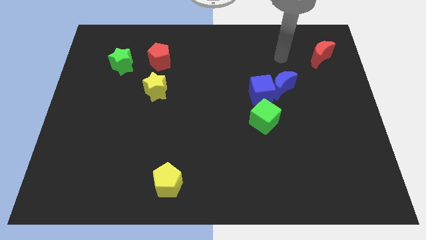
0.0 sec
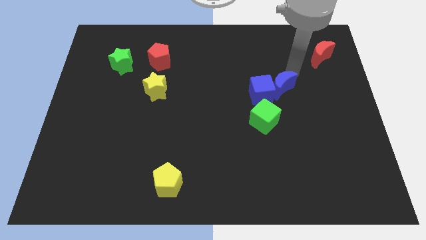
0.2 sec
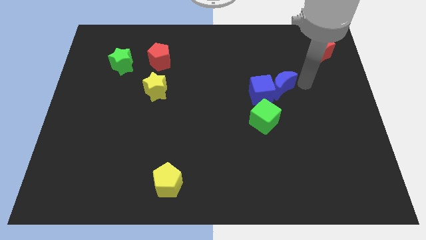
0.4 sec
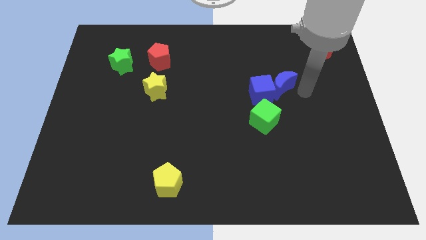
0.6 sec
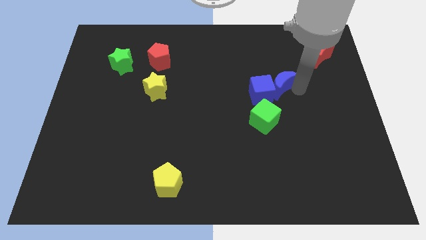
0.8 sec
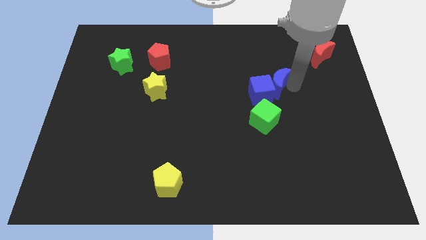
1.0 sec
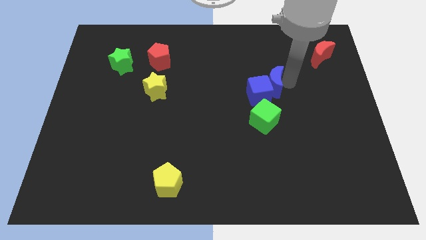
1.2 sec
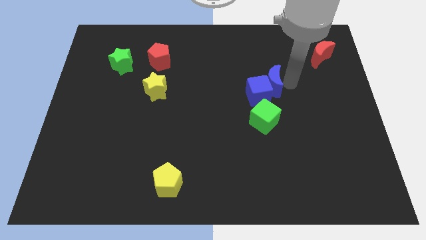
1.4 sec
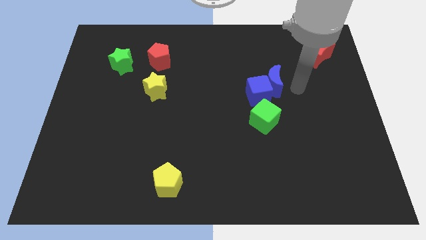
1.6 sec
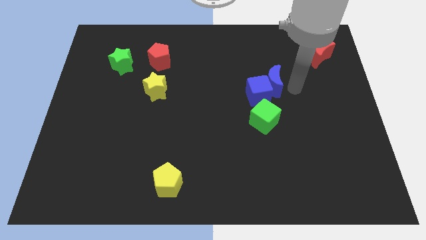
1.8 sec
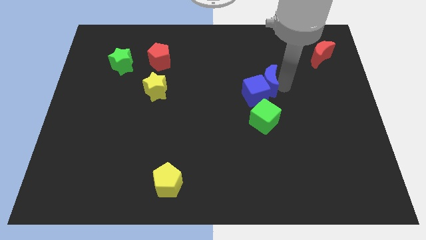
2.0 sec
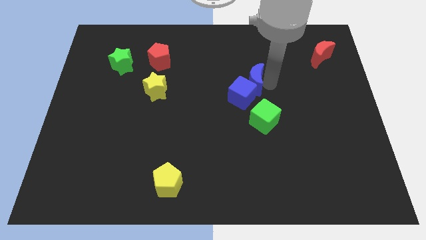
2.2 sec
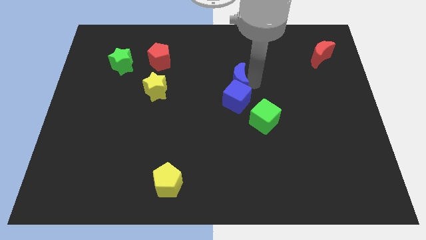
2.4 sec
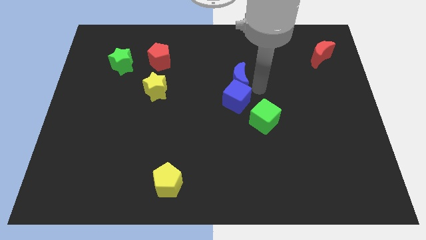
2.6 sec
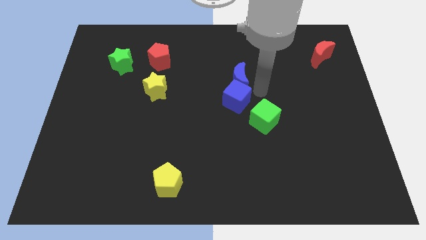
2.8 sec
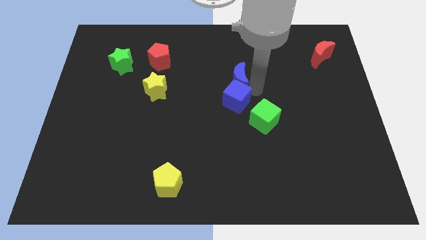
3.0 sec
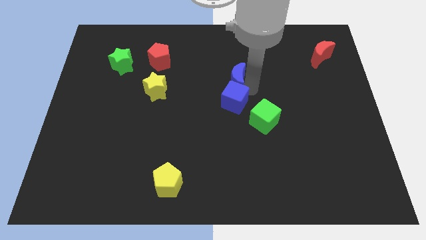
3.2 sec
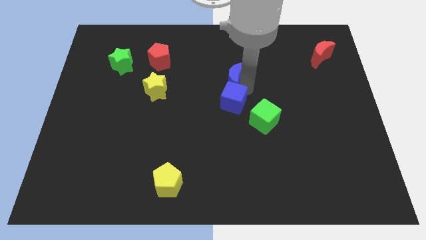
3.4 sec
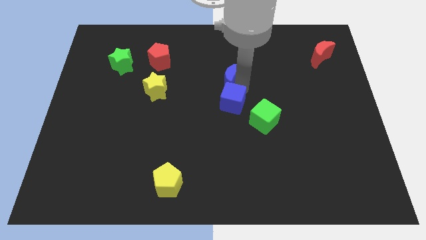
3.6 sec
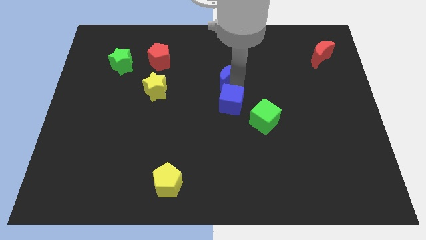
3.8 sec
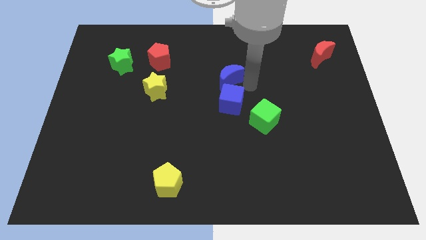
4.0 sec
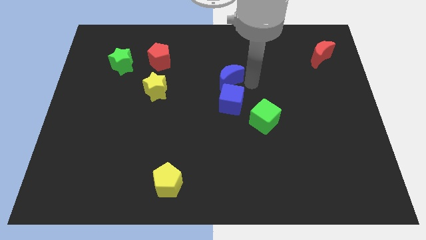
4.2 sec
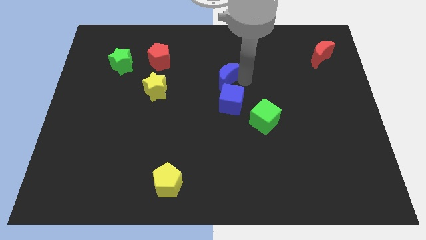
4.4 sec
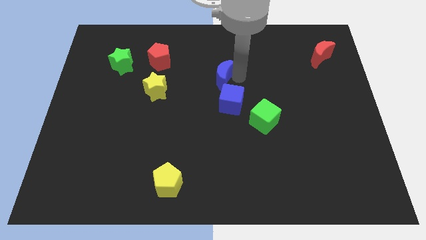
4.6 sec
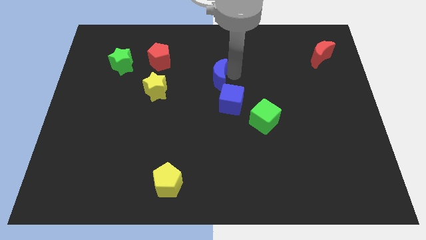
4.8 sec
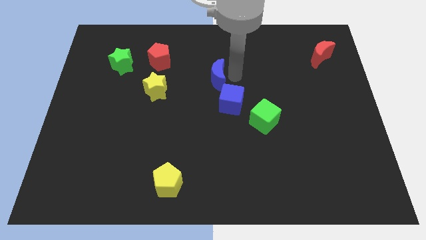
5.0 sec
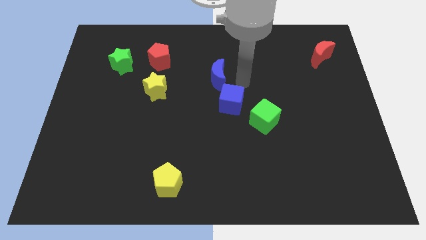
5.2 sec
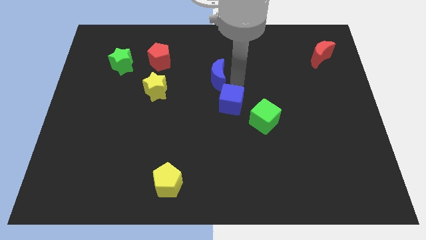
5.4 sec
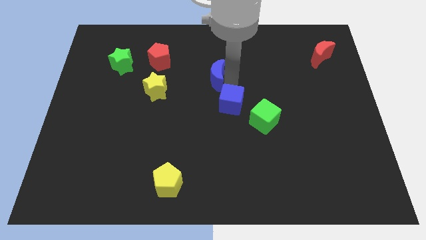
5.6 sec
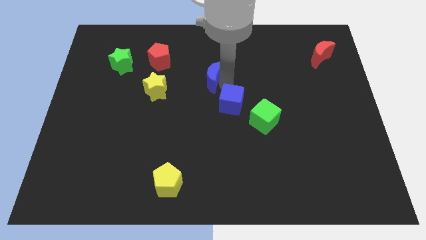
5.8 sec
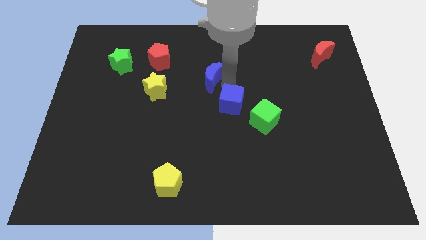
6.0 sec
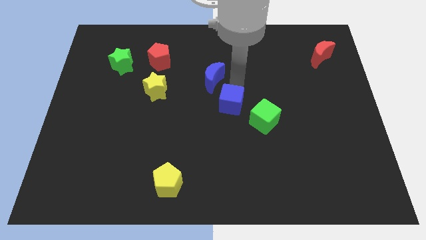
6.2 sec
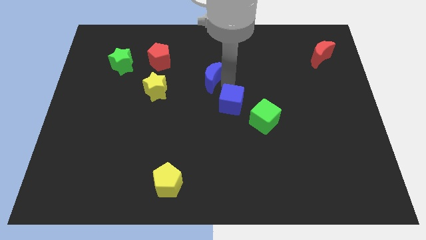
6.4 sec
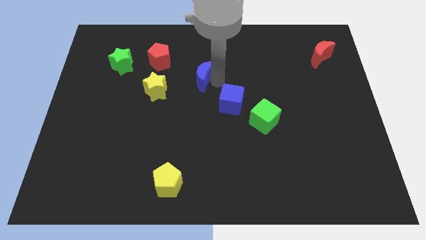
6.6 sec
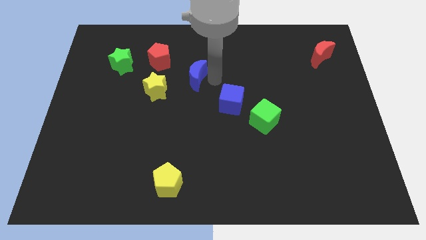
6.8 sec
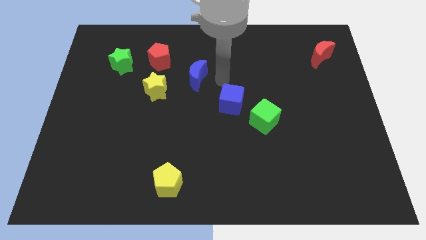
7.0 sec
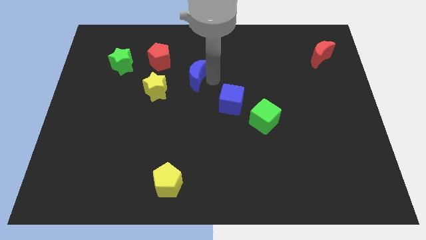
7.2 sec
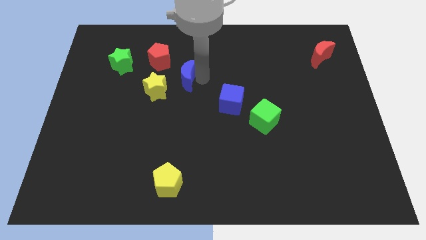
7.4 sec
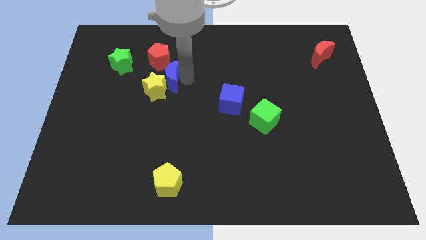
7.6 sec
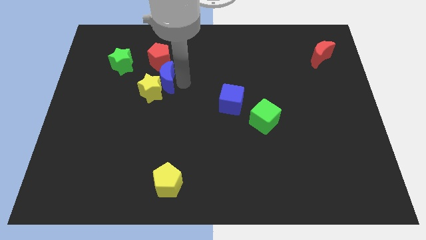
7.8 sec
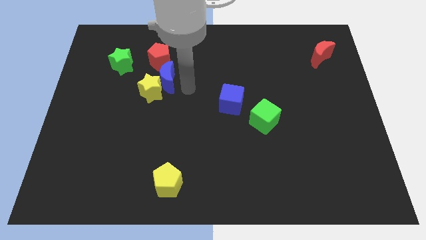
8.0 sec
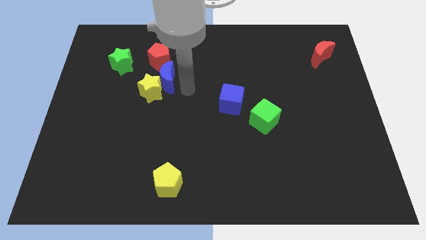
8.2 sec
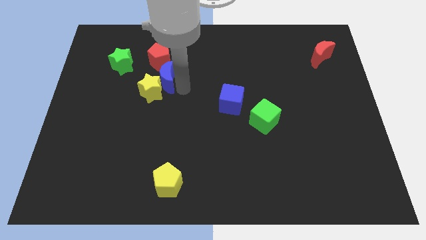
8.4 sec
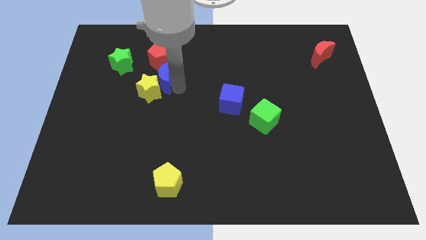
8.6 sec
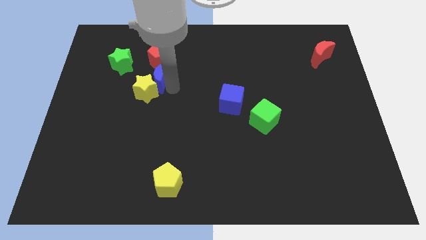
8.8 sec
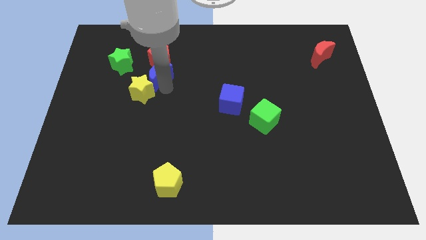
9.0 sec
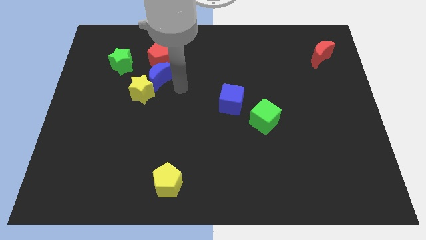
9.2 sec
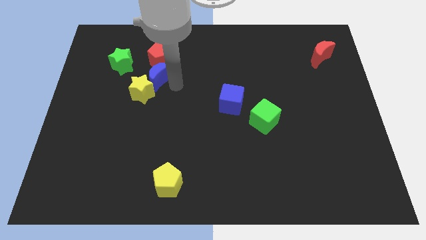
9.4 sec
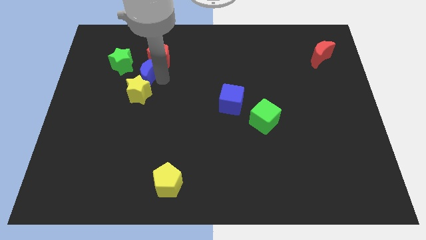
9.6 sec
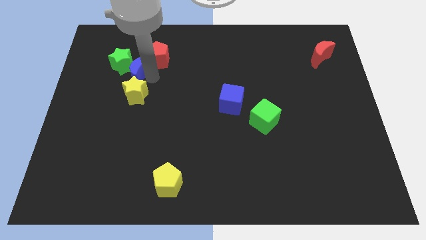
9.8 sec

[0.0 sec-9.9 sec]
slide the blue moon next to the green star

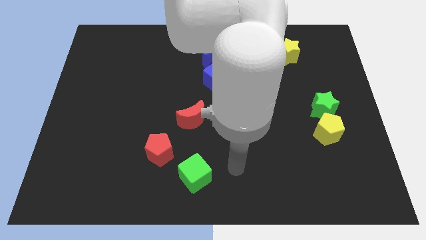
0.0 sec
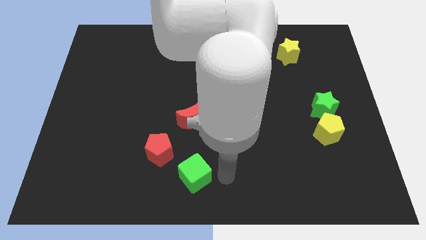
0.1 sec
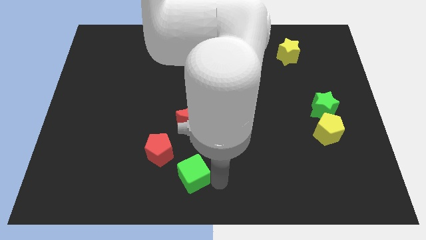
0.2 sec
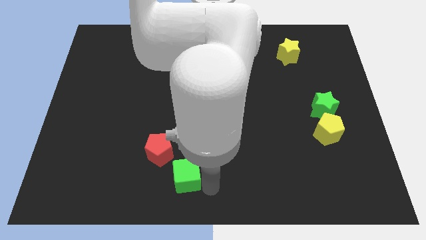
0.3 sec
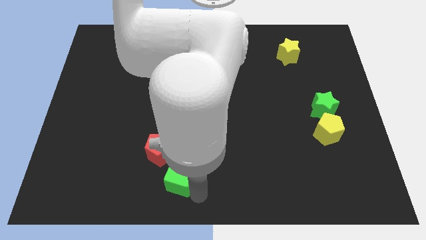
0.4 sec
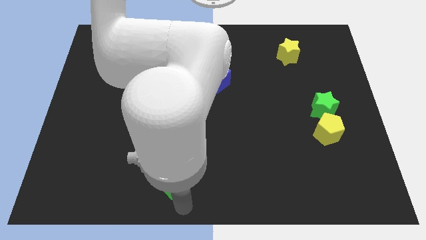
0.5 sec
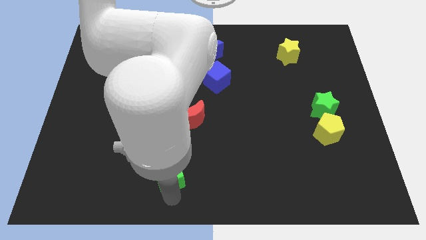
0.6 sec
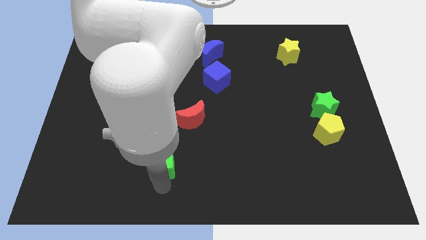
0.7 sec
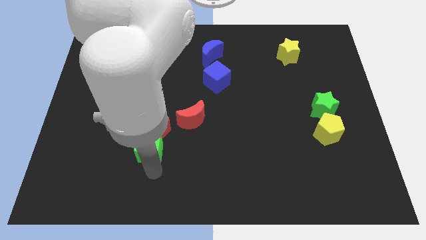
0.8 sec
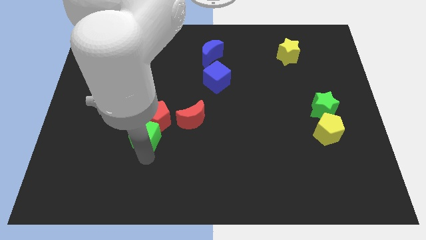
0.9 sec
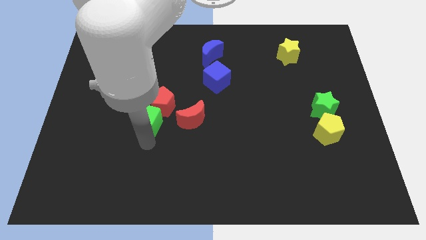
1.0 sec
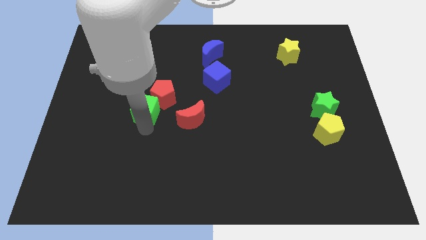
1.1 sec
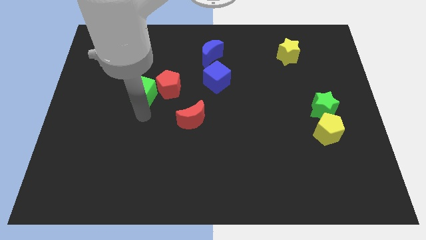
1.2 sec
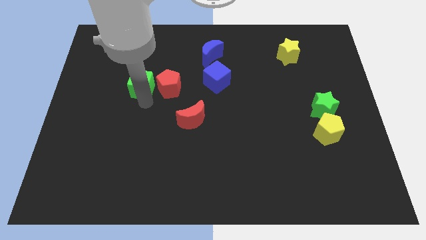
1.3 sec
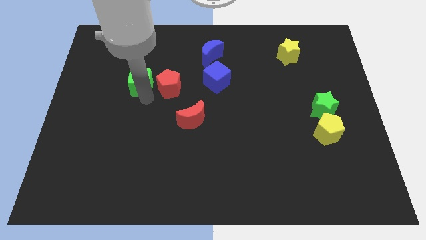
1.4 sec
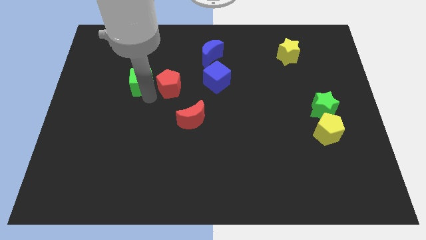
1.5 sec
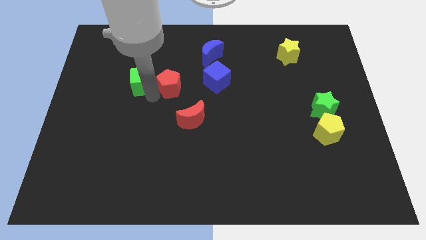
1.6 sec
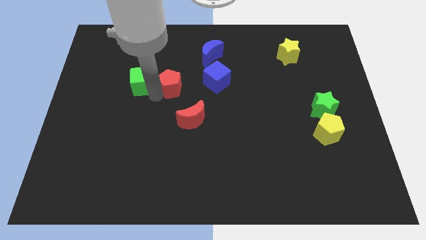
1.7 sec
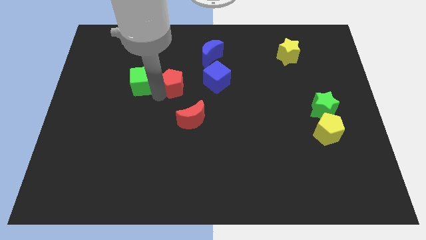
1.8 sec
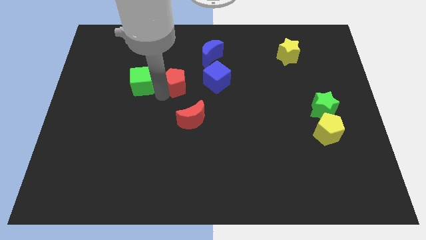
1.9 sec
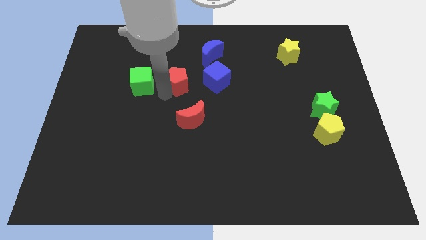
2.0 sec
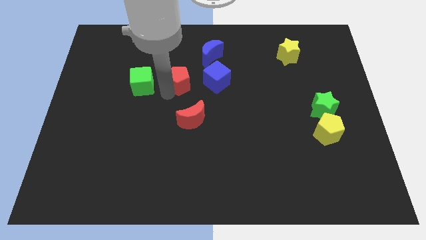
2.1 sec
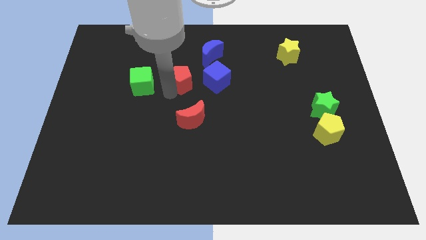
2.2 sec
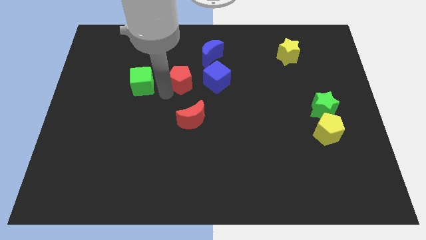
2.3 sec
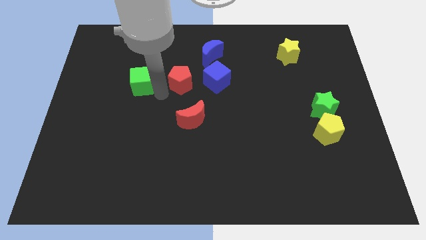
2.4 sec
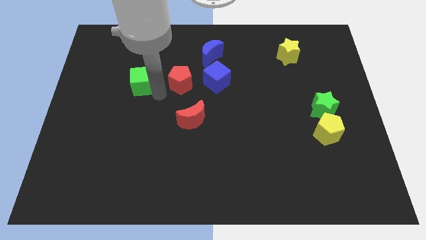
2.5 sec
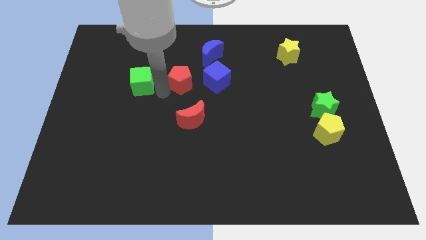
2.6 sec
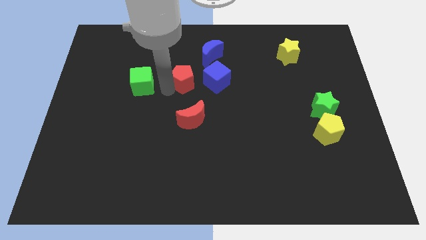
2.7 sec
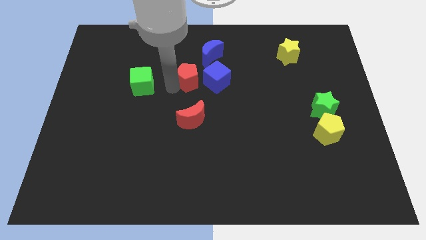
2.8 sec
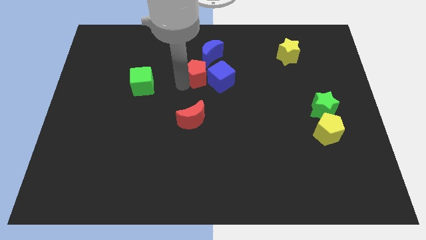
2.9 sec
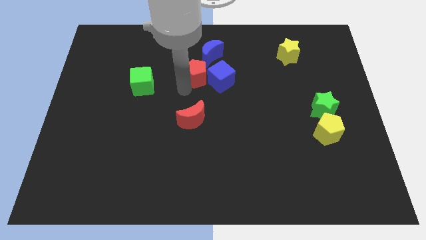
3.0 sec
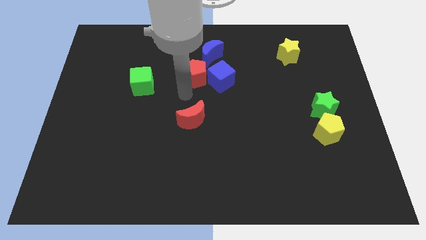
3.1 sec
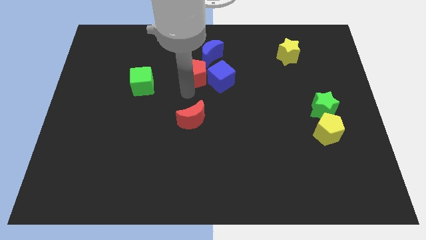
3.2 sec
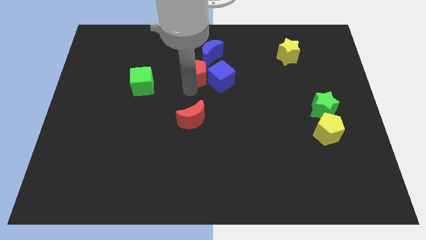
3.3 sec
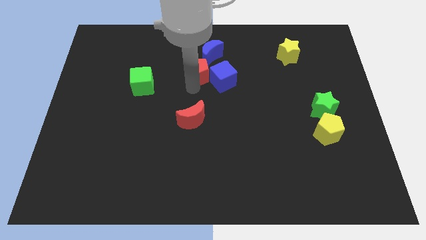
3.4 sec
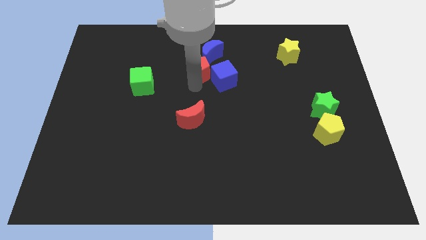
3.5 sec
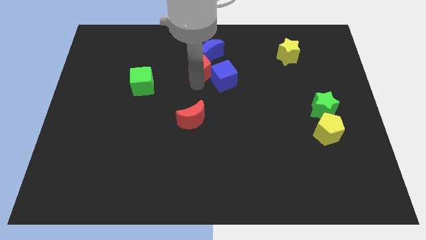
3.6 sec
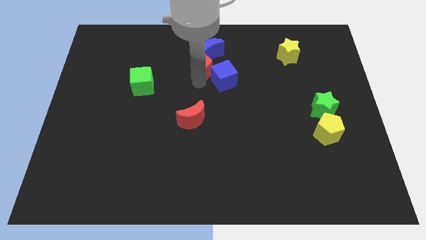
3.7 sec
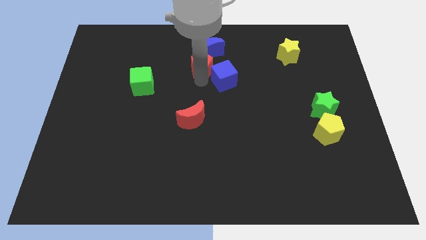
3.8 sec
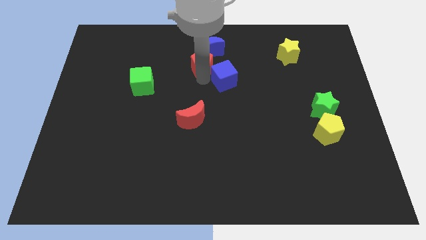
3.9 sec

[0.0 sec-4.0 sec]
slide the red pentagon towards the blue moon
